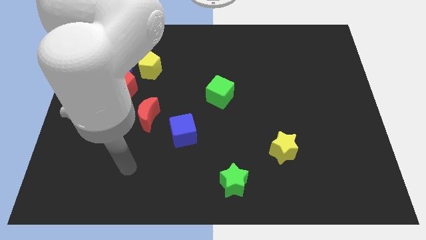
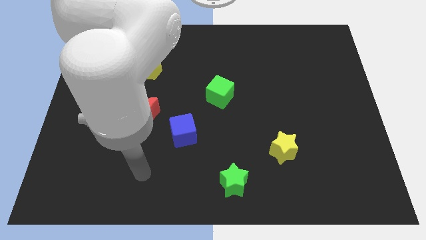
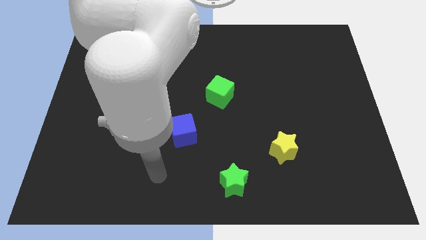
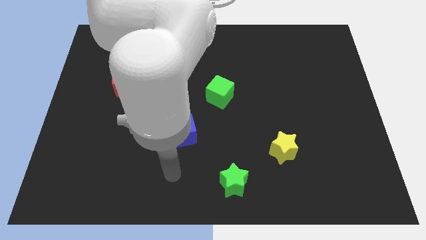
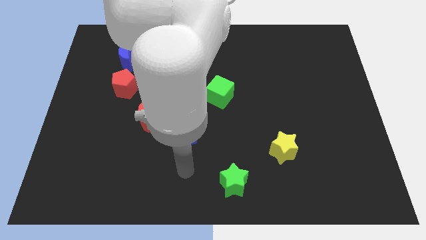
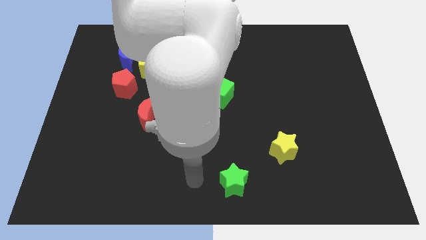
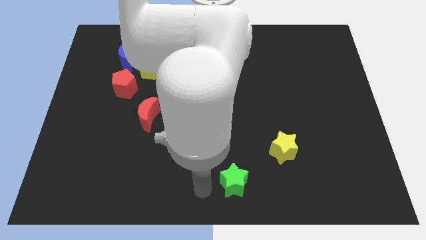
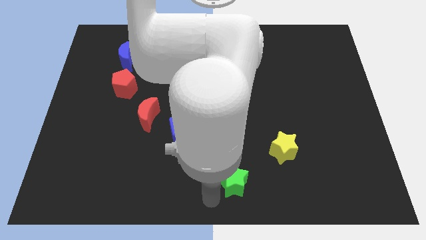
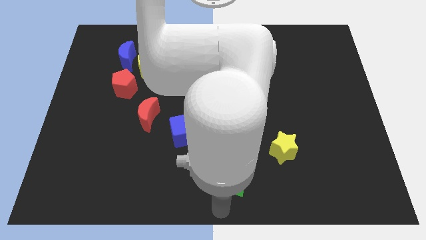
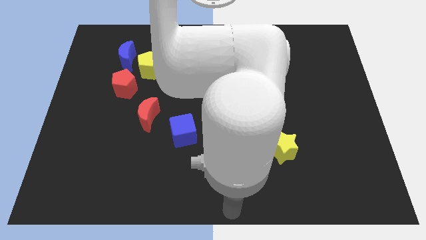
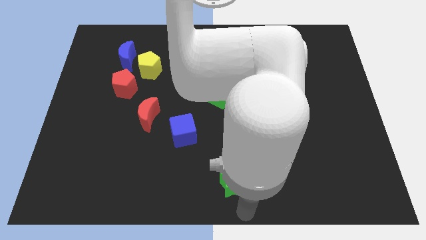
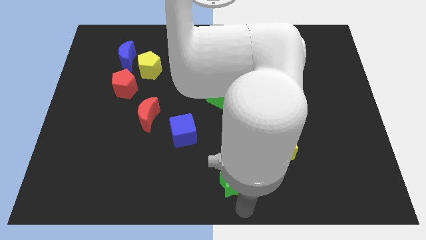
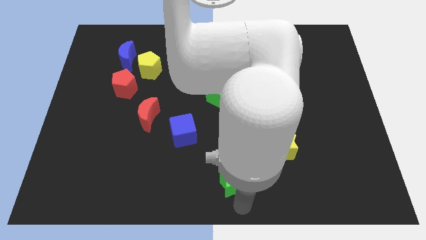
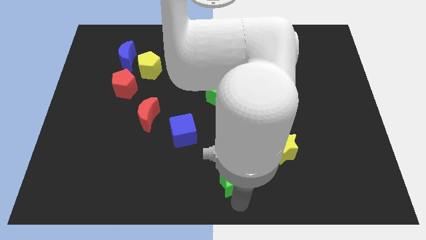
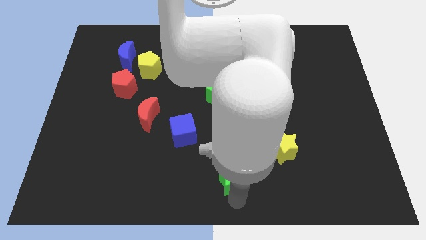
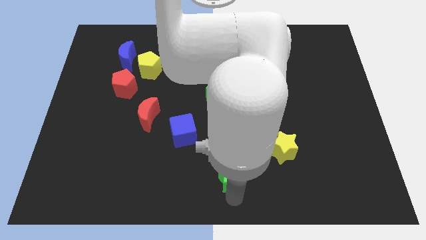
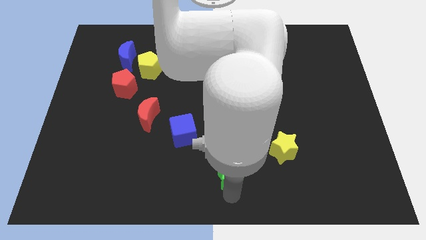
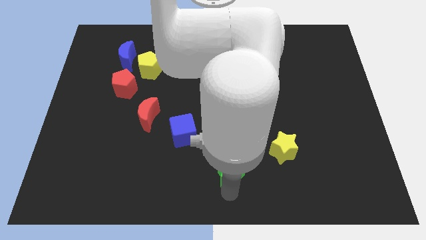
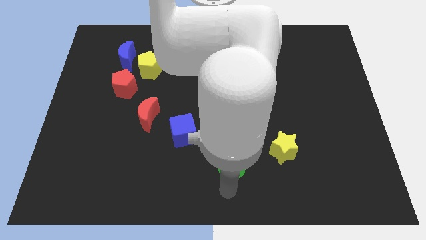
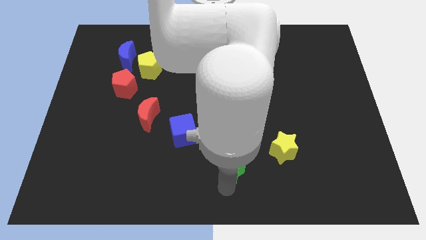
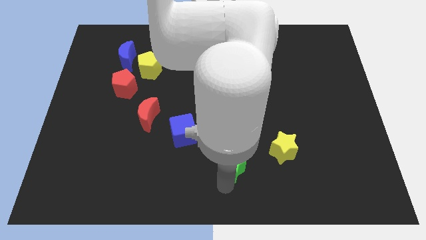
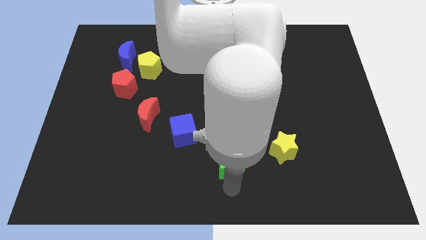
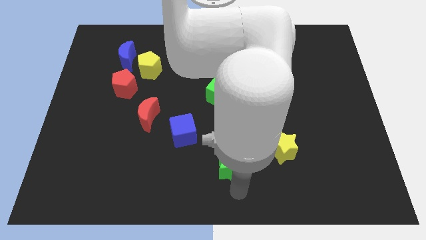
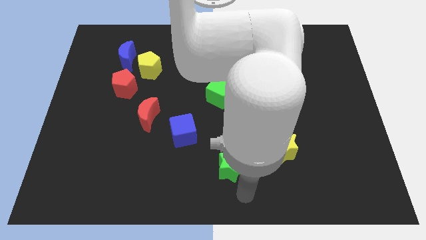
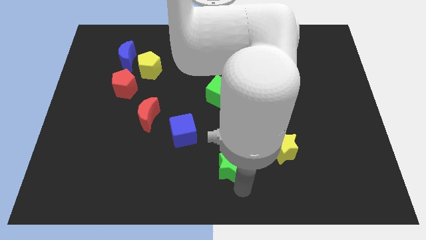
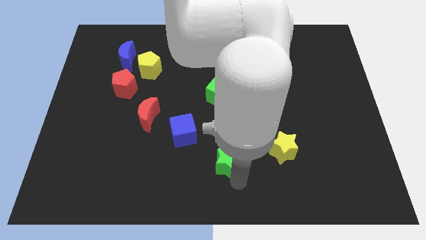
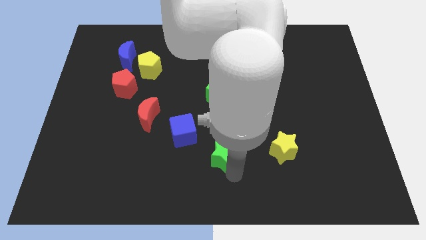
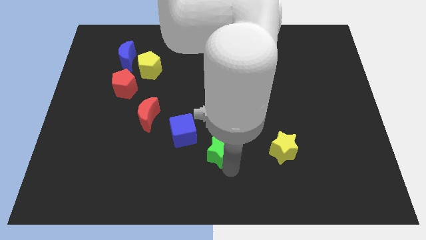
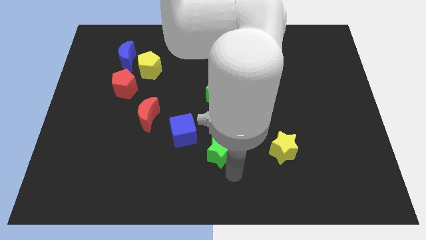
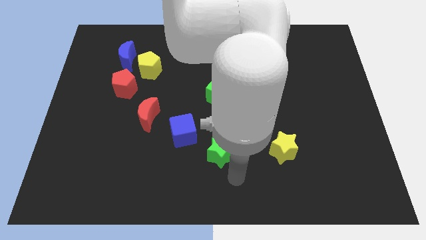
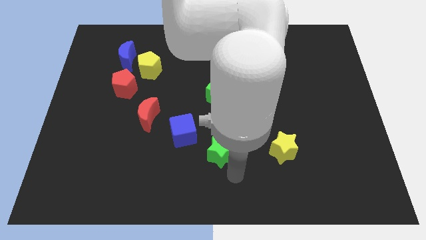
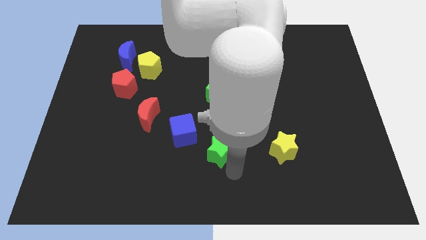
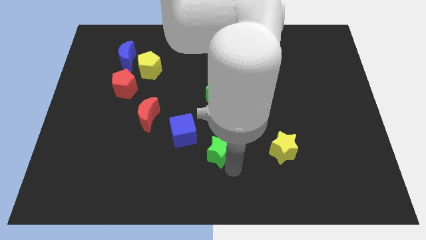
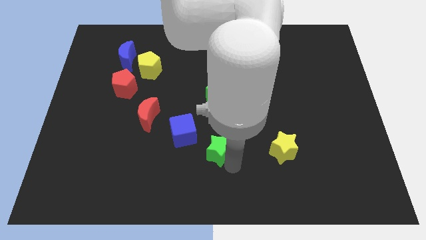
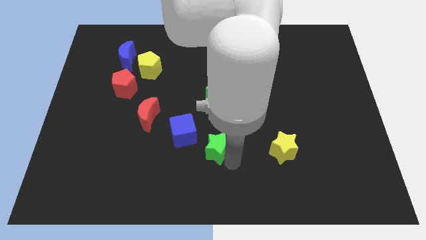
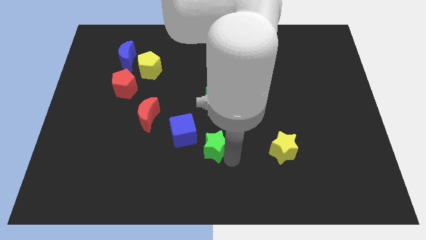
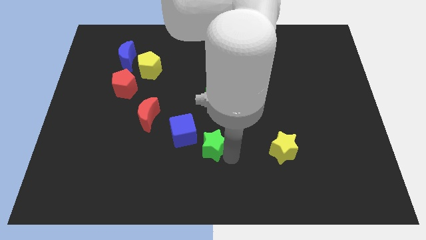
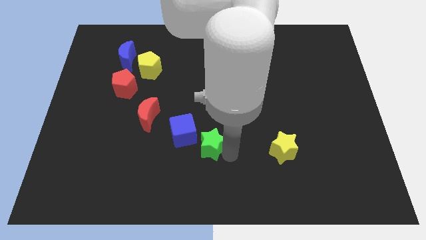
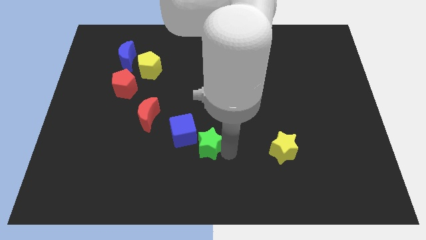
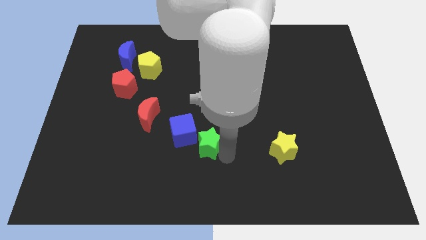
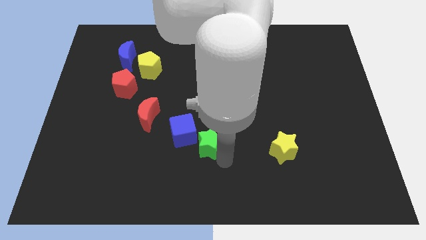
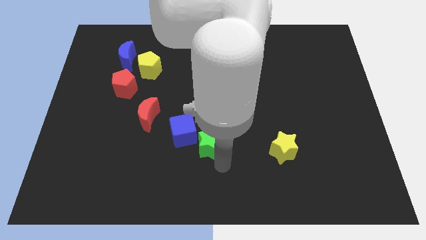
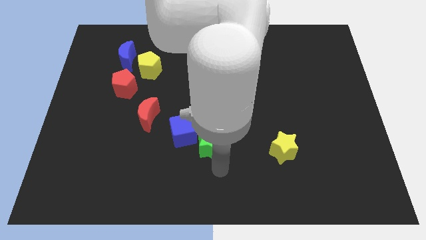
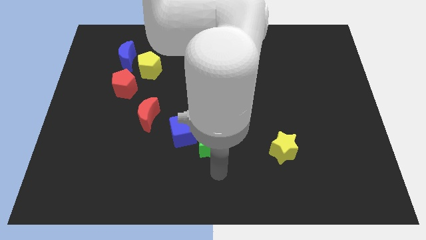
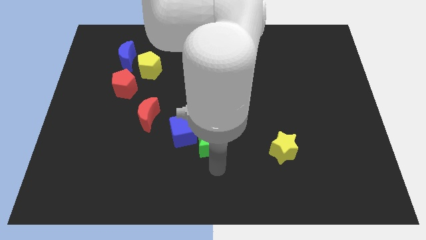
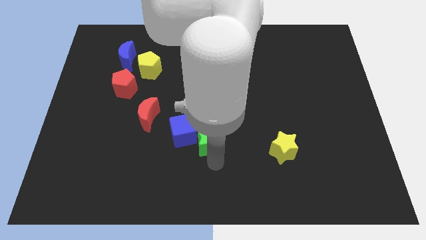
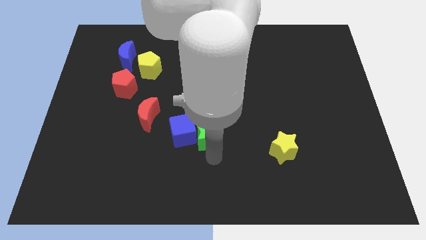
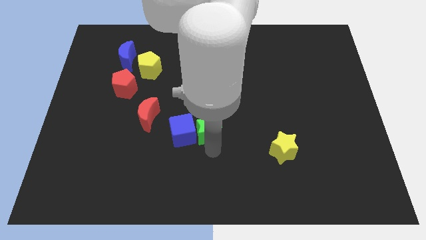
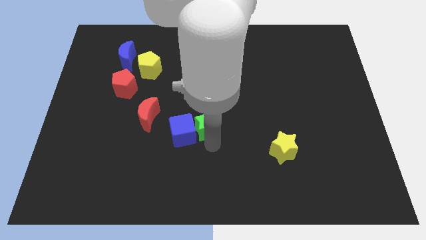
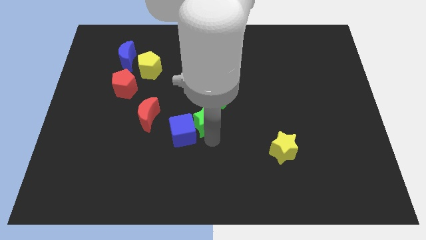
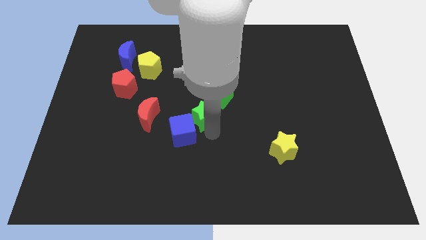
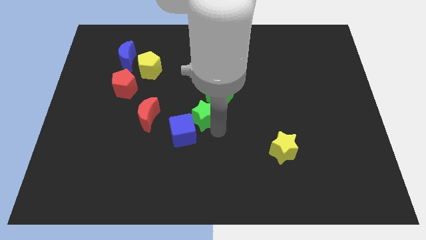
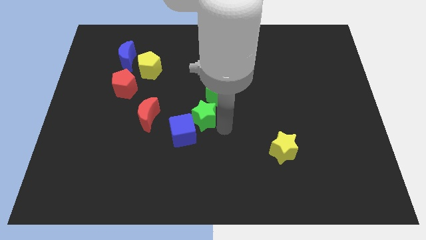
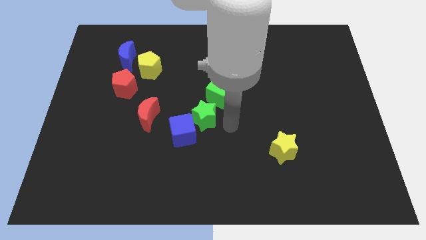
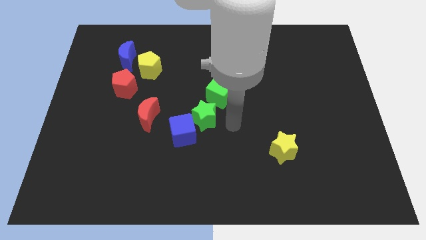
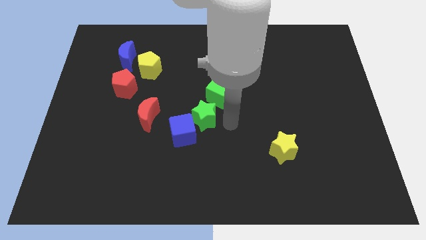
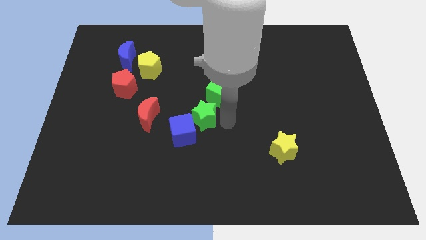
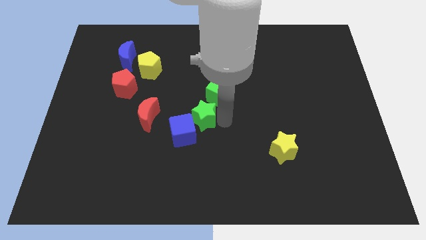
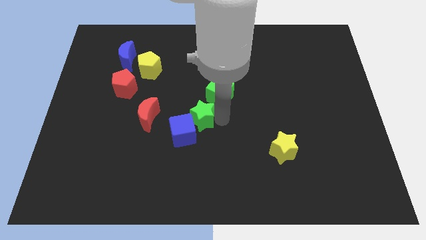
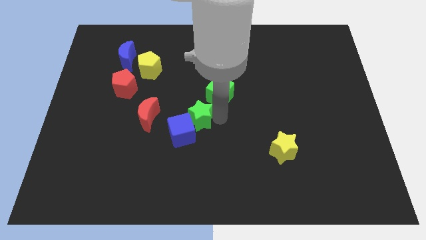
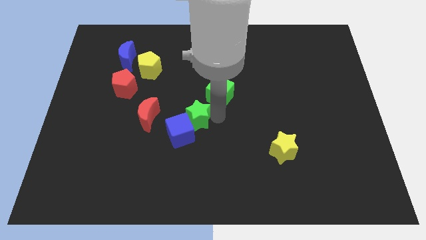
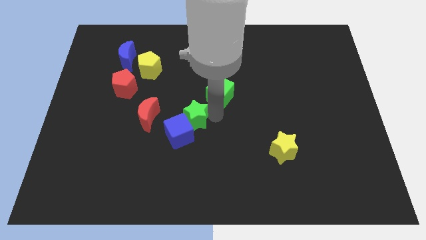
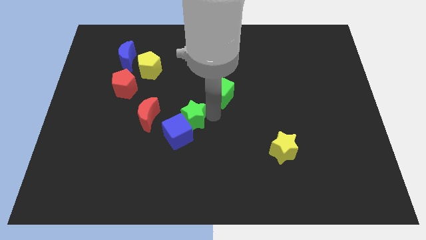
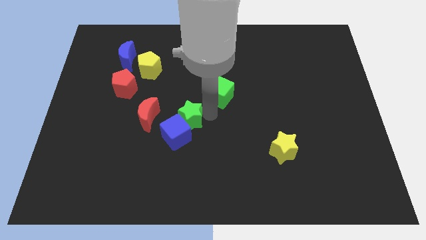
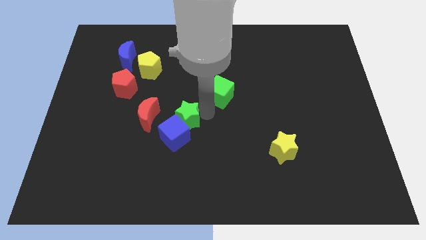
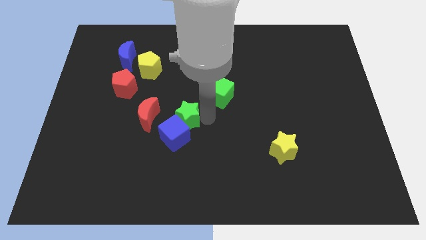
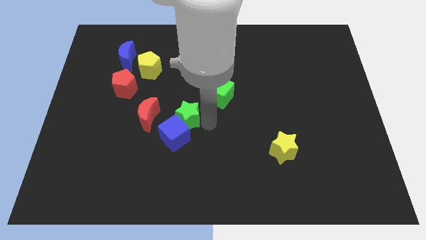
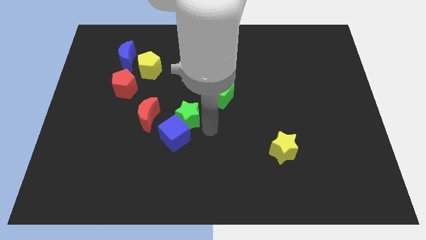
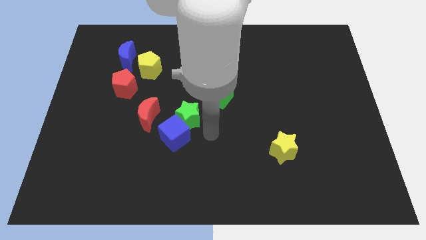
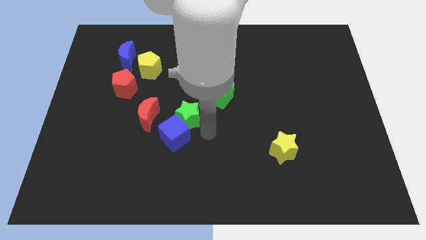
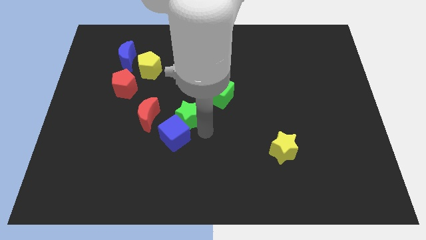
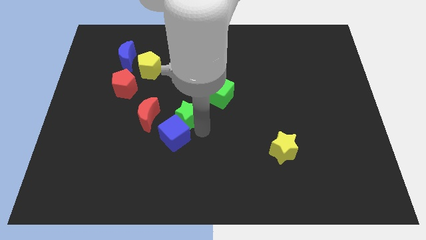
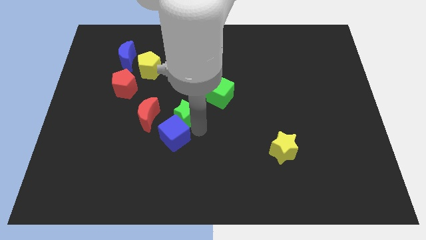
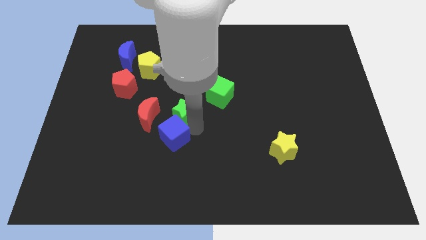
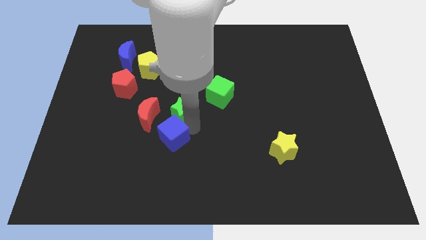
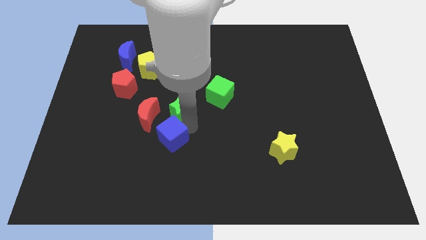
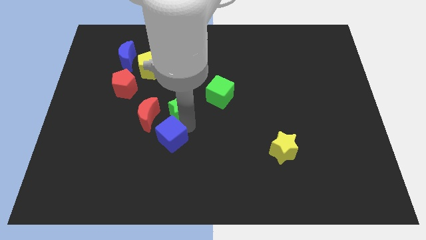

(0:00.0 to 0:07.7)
push the green star upwards and left

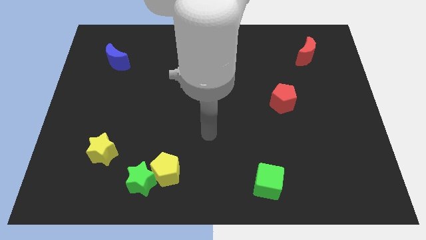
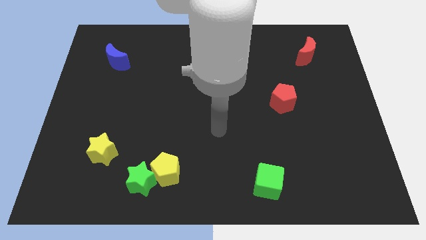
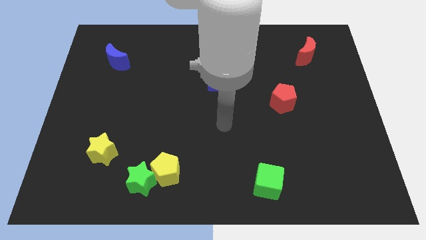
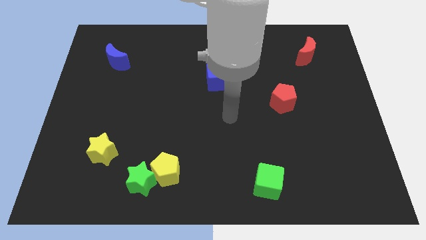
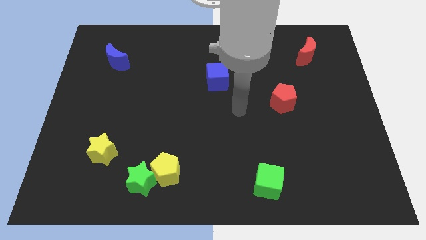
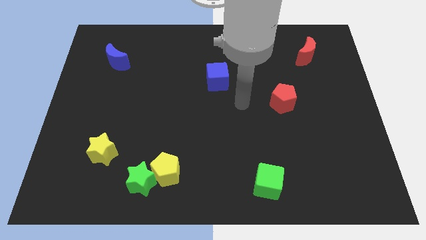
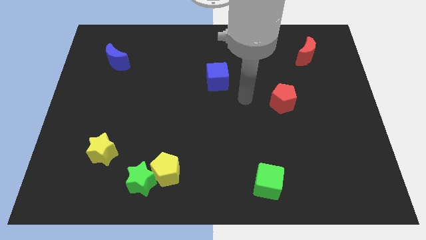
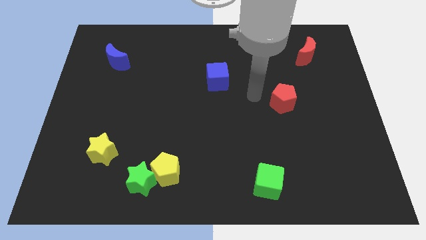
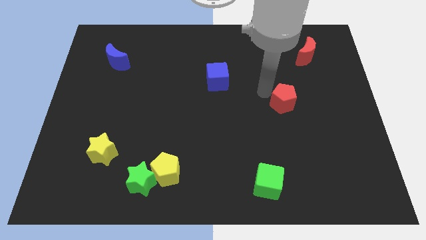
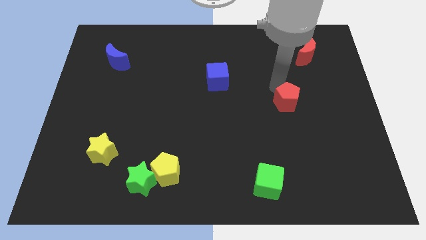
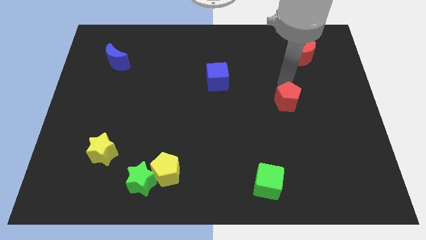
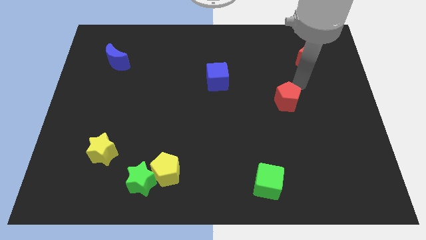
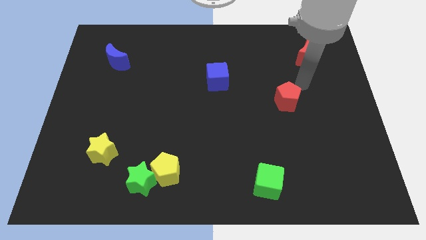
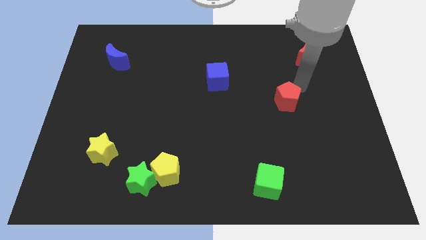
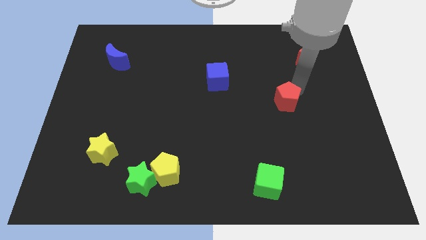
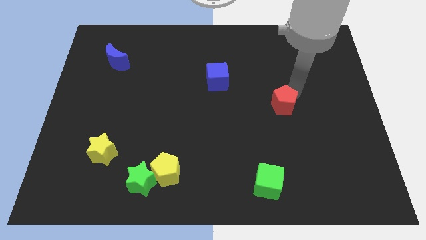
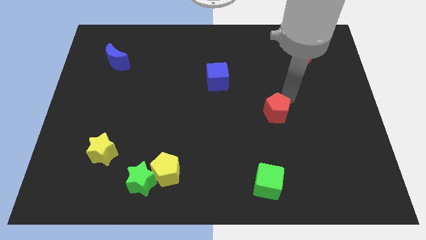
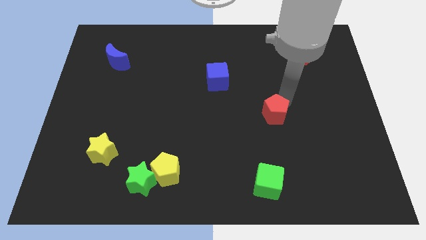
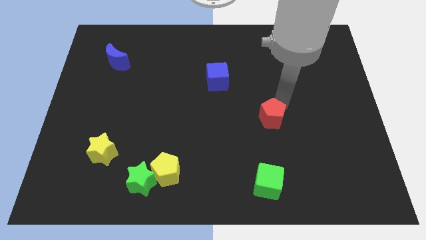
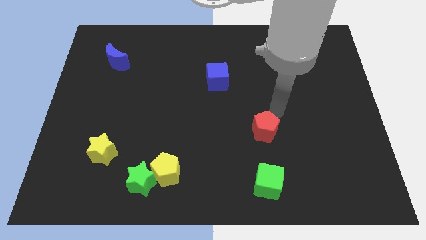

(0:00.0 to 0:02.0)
push the red pentagon downwards and then to the left slightly
